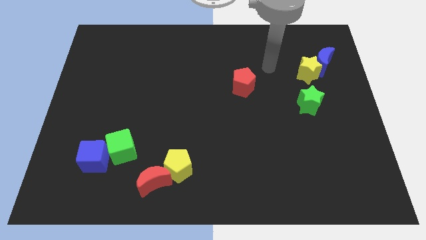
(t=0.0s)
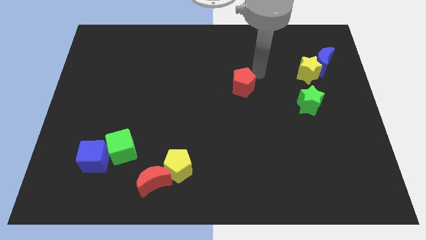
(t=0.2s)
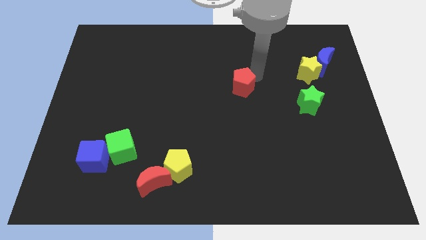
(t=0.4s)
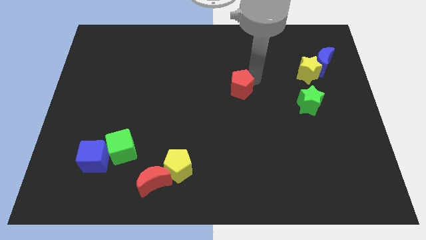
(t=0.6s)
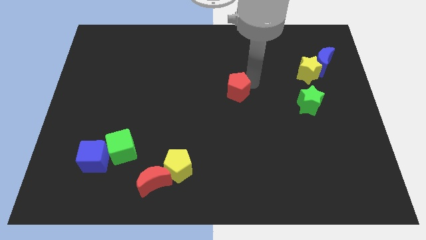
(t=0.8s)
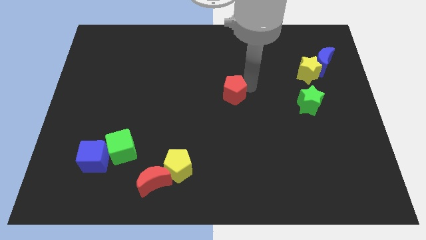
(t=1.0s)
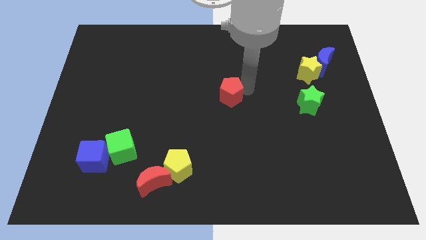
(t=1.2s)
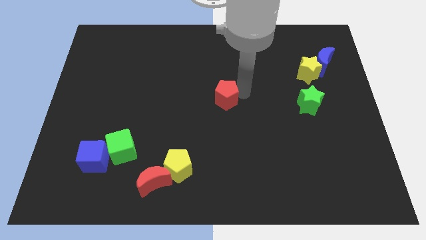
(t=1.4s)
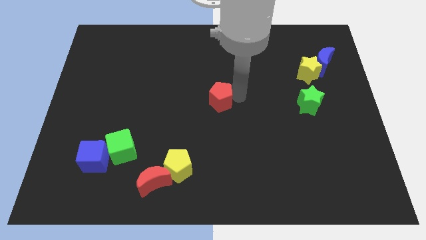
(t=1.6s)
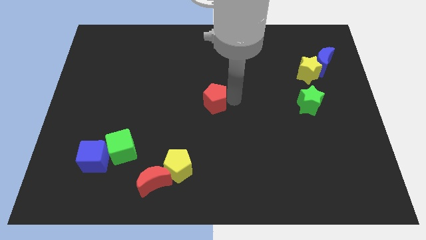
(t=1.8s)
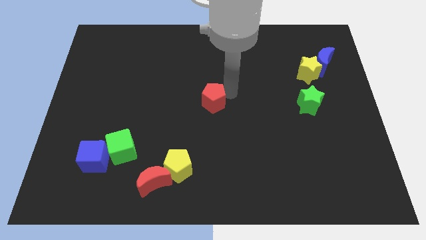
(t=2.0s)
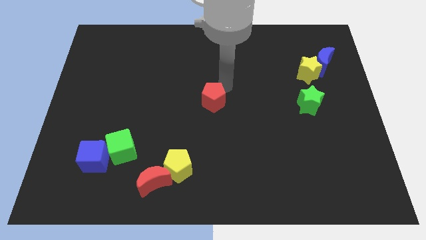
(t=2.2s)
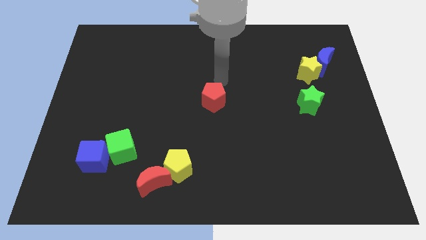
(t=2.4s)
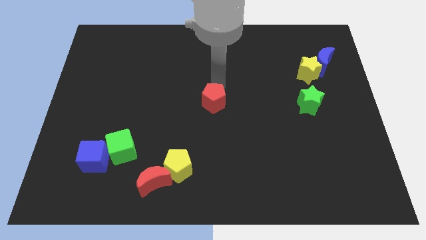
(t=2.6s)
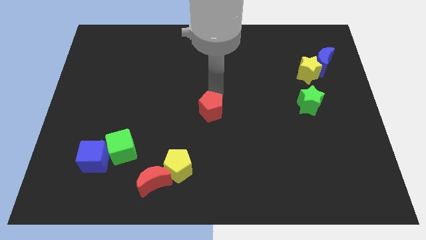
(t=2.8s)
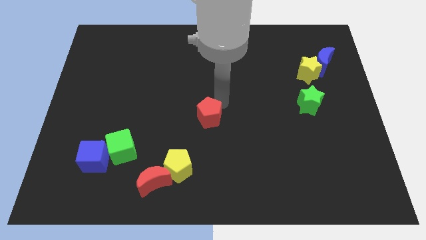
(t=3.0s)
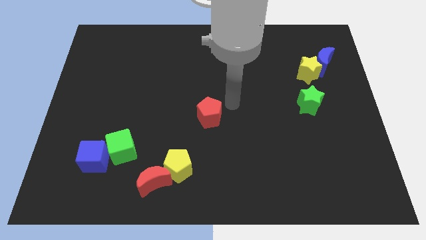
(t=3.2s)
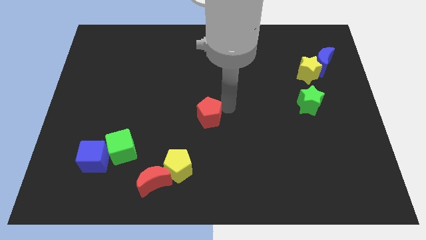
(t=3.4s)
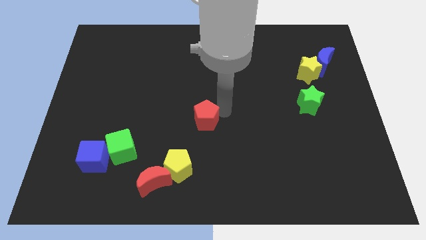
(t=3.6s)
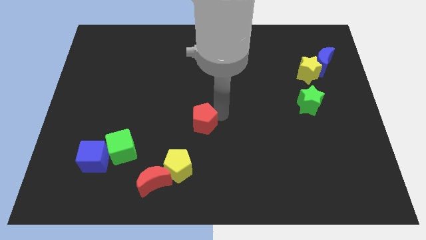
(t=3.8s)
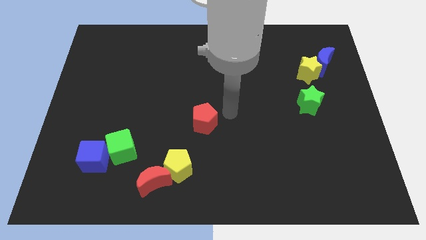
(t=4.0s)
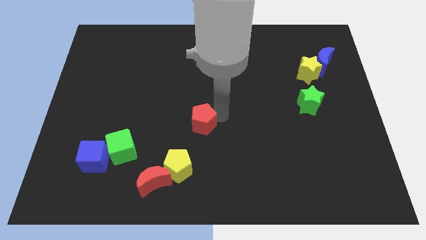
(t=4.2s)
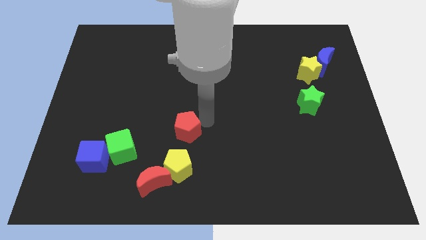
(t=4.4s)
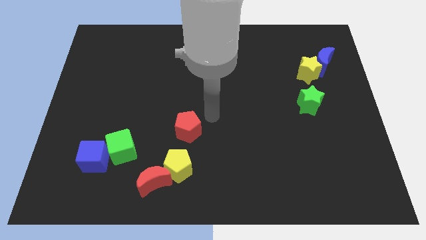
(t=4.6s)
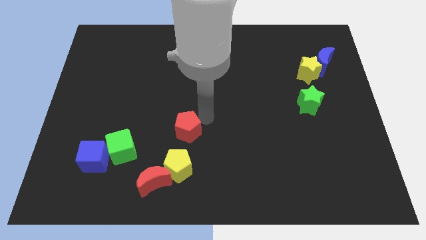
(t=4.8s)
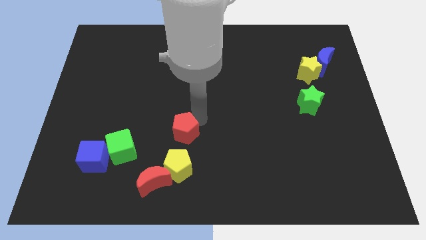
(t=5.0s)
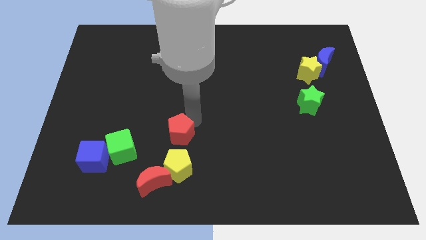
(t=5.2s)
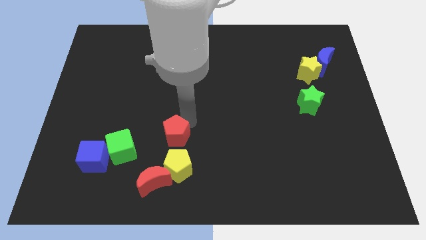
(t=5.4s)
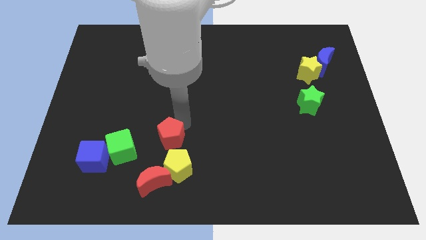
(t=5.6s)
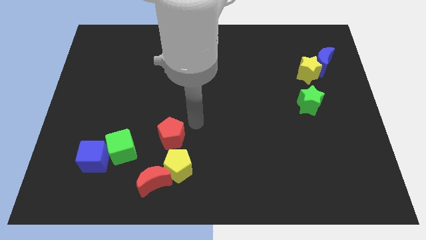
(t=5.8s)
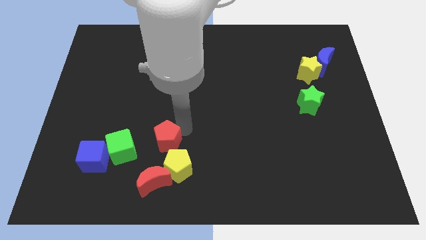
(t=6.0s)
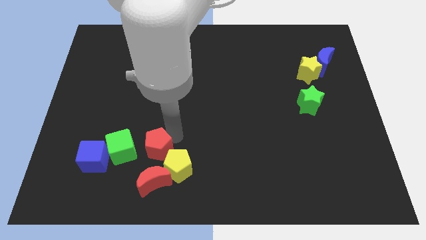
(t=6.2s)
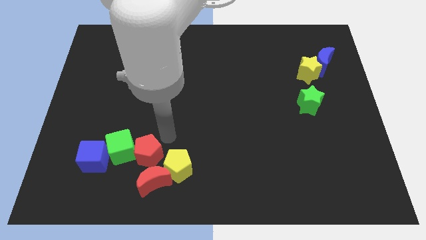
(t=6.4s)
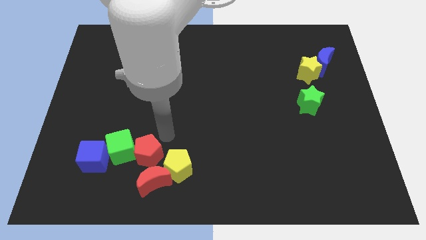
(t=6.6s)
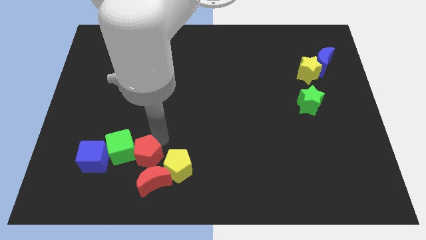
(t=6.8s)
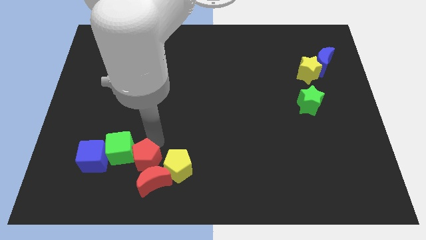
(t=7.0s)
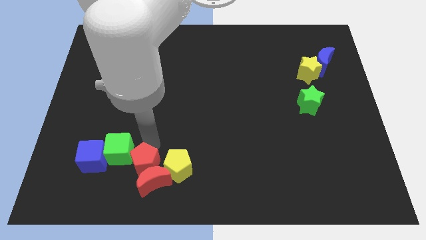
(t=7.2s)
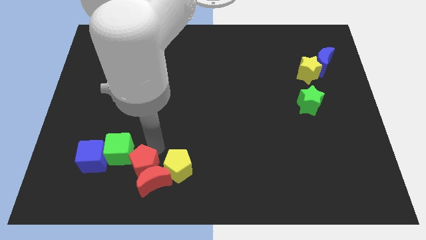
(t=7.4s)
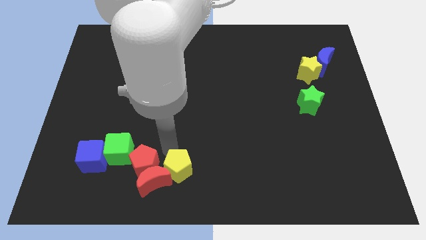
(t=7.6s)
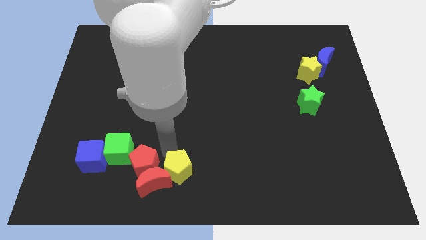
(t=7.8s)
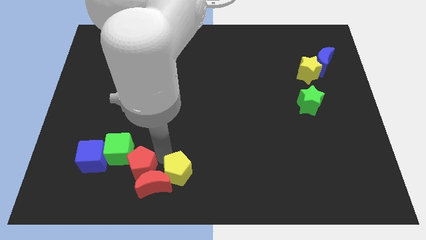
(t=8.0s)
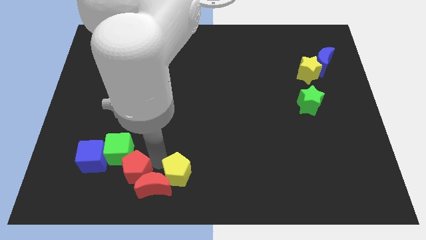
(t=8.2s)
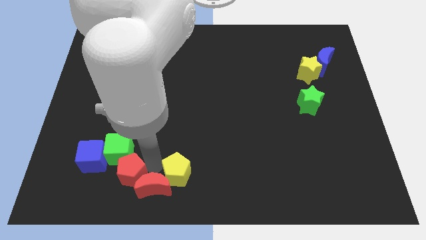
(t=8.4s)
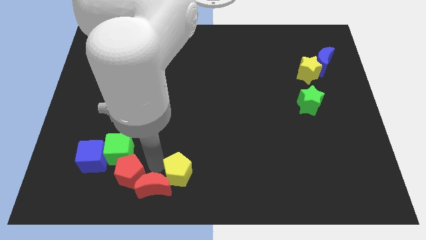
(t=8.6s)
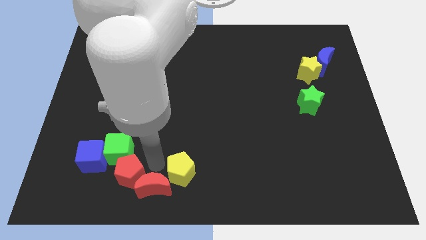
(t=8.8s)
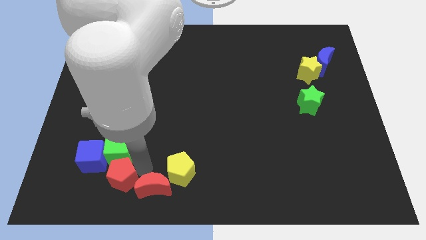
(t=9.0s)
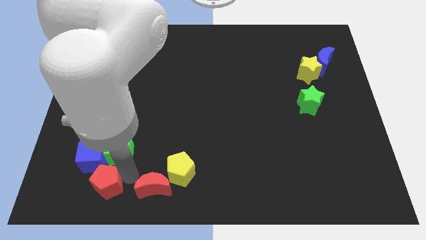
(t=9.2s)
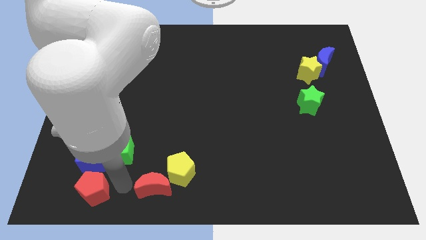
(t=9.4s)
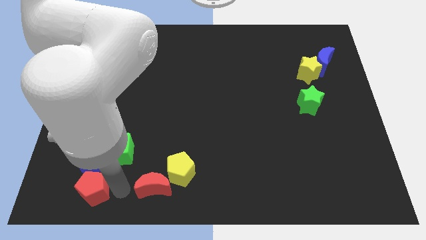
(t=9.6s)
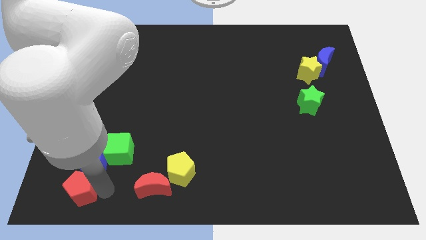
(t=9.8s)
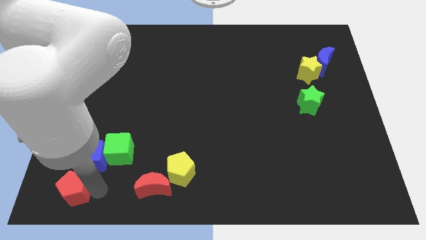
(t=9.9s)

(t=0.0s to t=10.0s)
push the red pentagon to the bottom left
